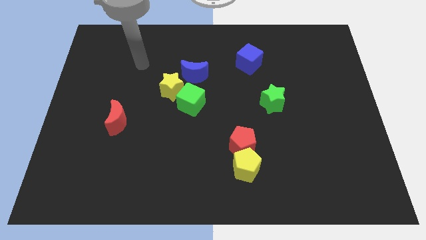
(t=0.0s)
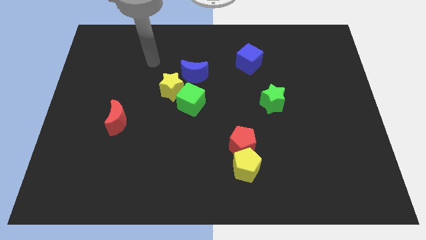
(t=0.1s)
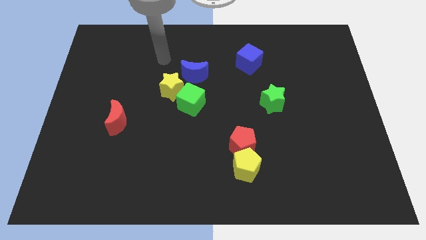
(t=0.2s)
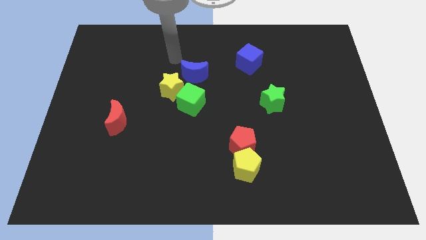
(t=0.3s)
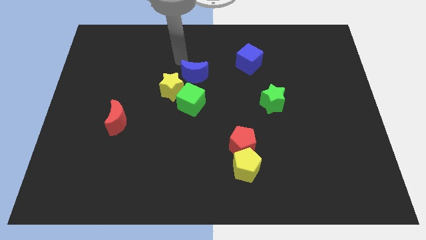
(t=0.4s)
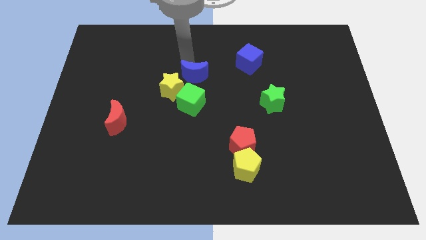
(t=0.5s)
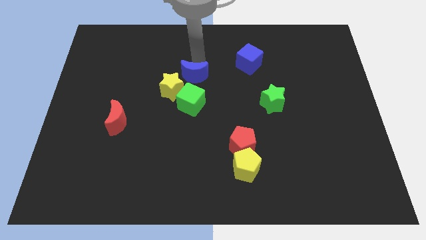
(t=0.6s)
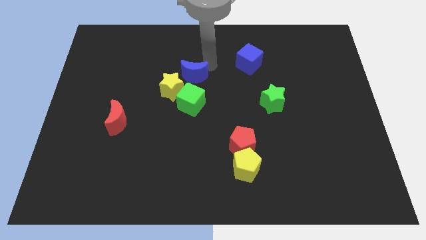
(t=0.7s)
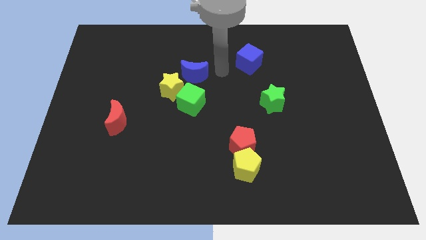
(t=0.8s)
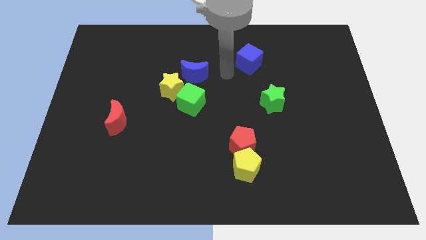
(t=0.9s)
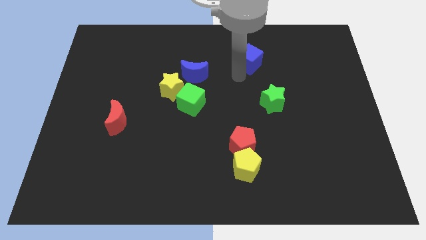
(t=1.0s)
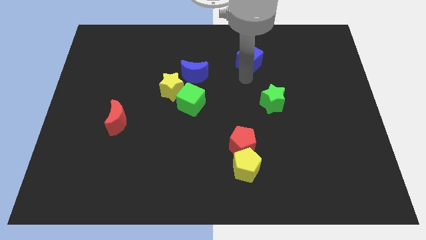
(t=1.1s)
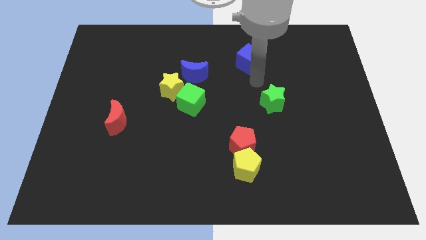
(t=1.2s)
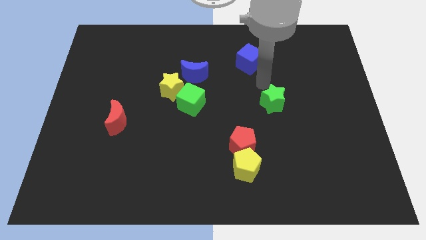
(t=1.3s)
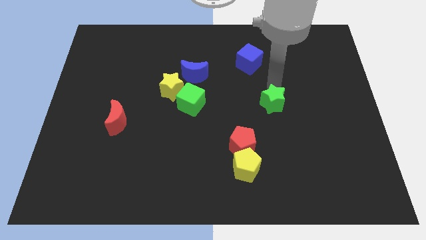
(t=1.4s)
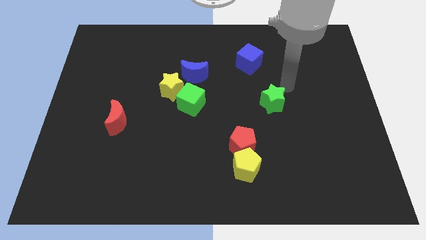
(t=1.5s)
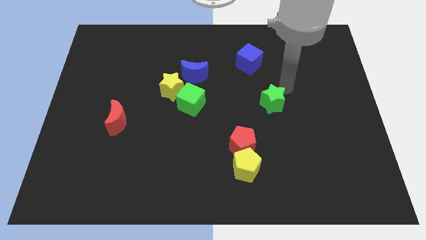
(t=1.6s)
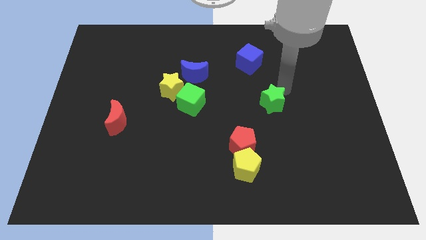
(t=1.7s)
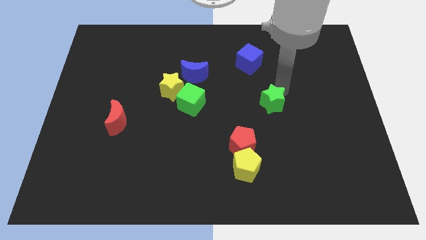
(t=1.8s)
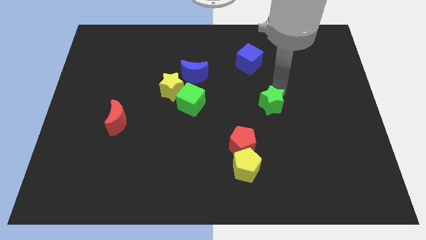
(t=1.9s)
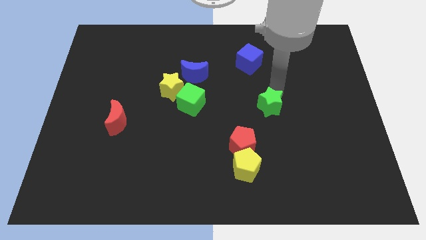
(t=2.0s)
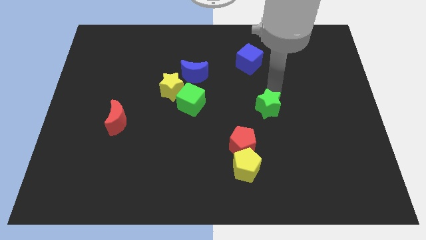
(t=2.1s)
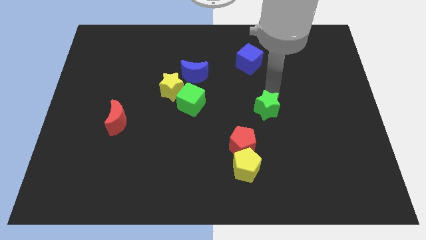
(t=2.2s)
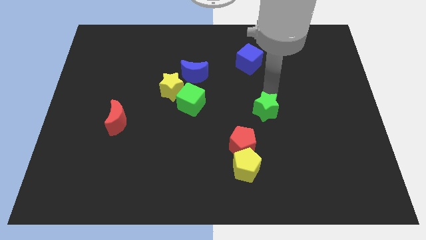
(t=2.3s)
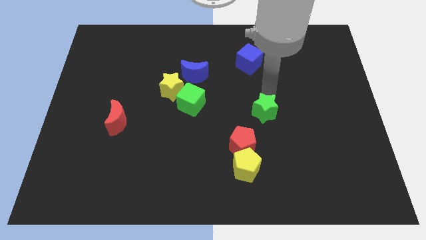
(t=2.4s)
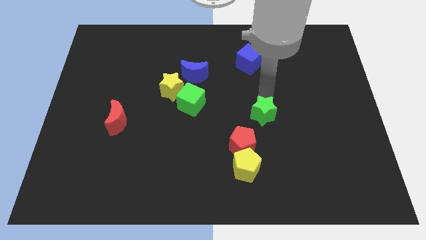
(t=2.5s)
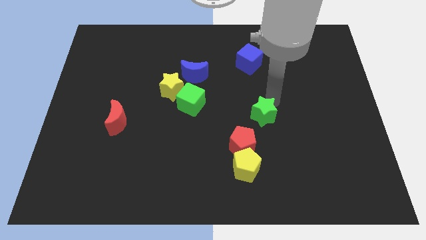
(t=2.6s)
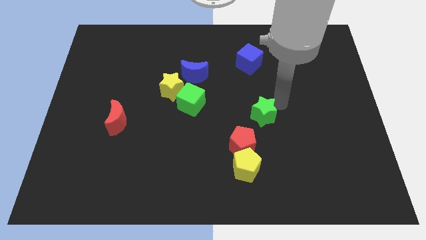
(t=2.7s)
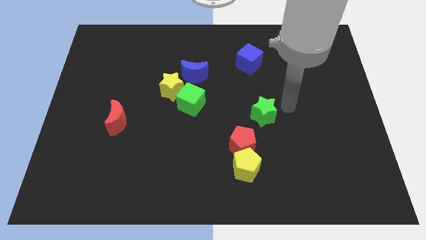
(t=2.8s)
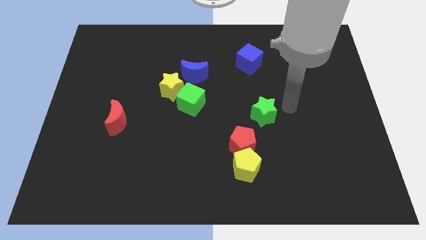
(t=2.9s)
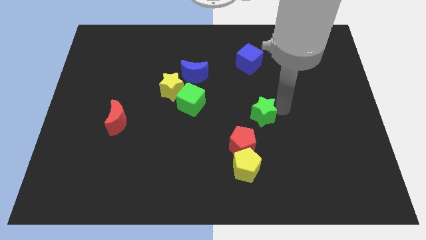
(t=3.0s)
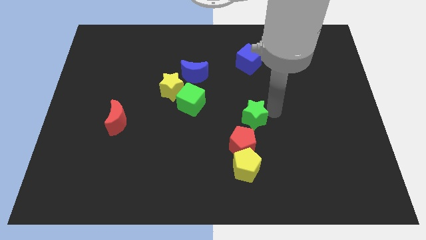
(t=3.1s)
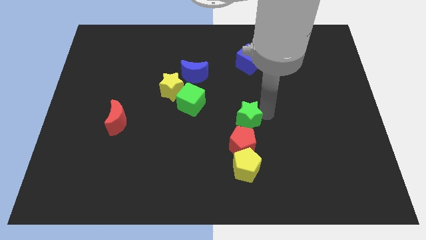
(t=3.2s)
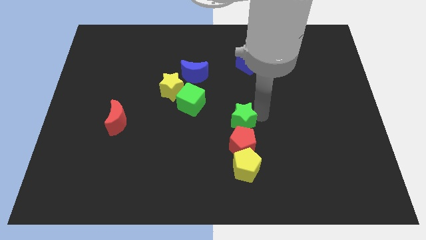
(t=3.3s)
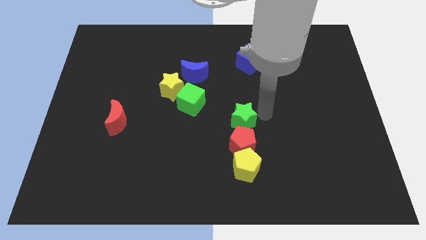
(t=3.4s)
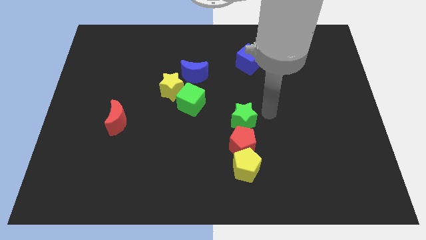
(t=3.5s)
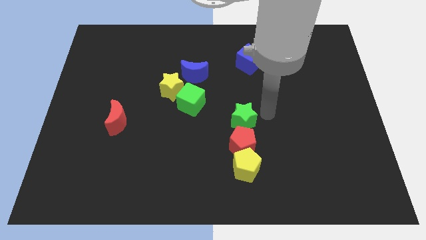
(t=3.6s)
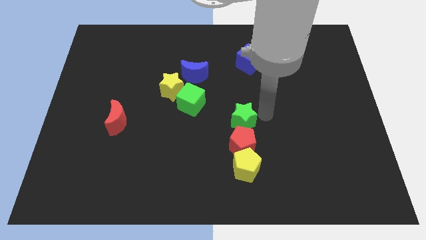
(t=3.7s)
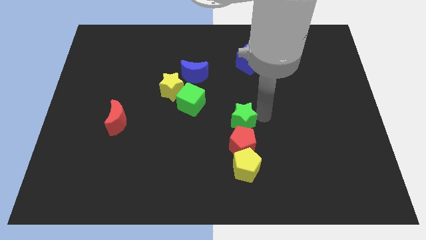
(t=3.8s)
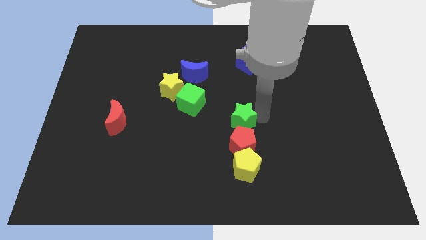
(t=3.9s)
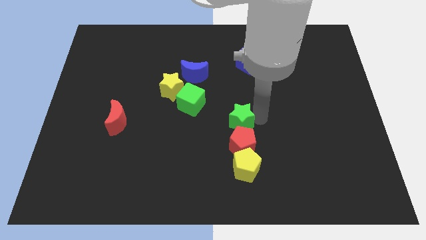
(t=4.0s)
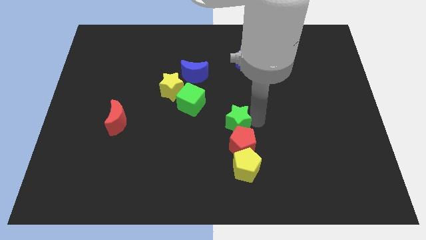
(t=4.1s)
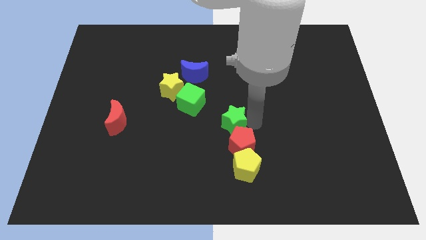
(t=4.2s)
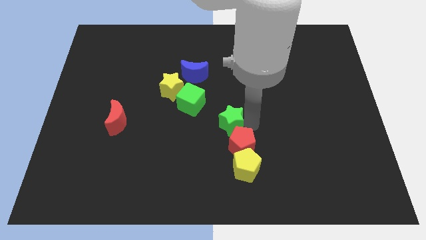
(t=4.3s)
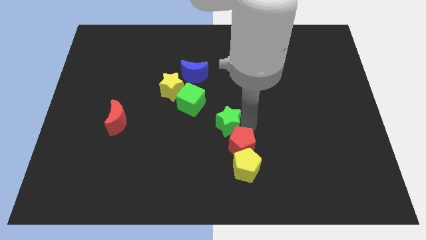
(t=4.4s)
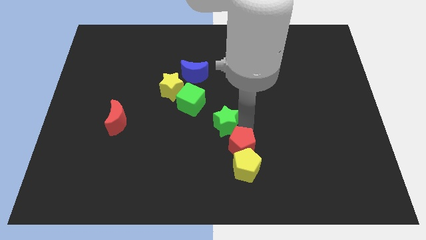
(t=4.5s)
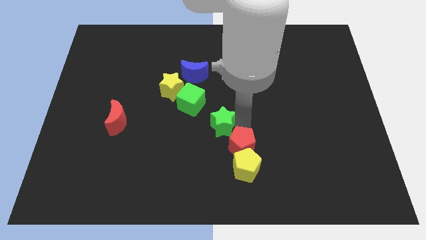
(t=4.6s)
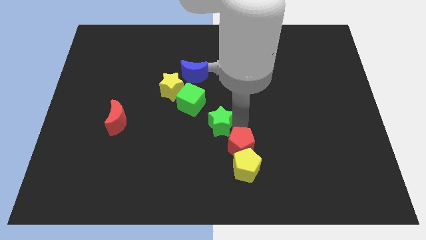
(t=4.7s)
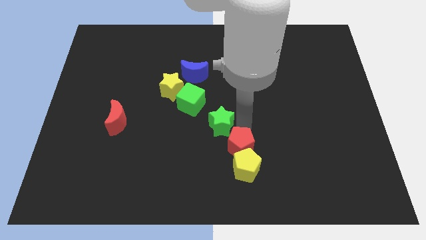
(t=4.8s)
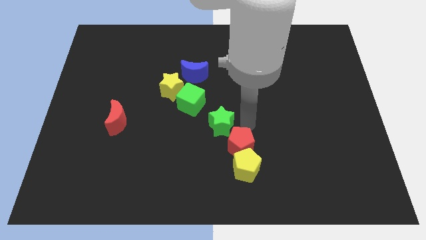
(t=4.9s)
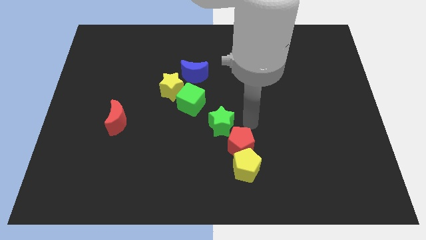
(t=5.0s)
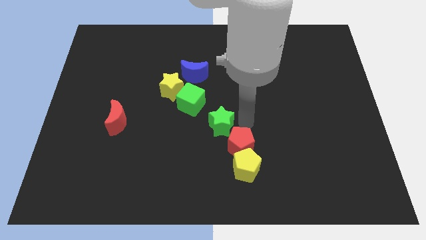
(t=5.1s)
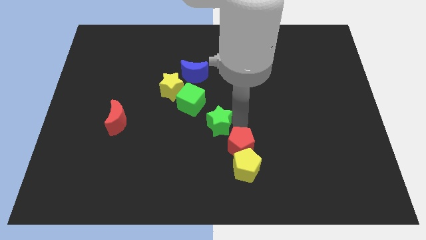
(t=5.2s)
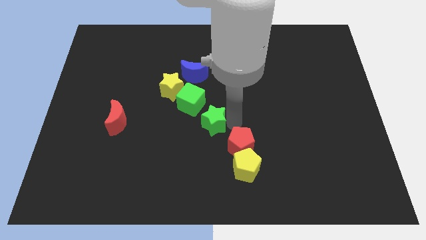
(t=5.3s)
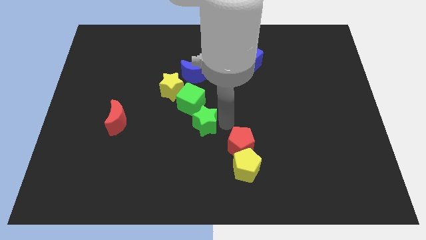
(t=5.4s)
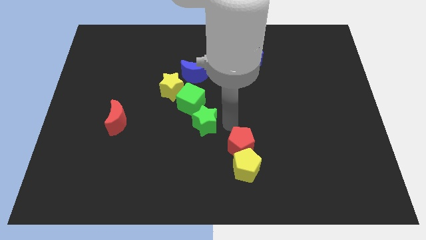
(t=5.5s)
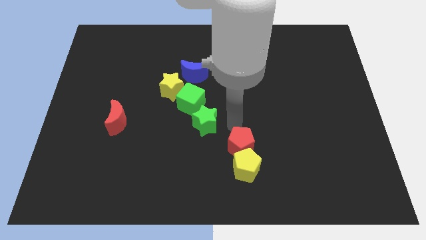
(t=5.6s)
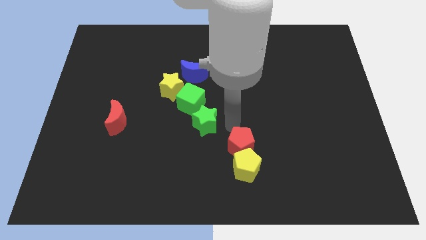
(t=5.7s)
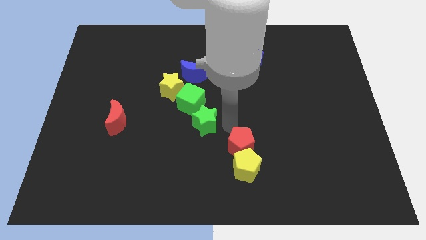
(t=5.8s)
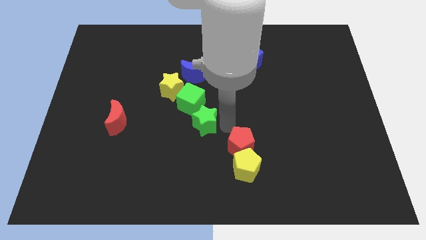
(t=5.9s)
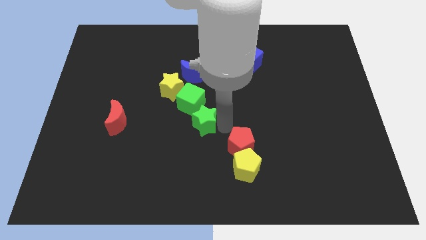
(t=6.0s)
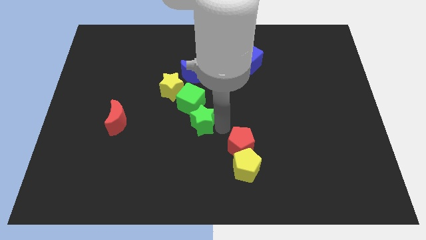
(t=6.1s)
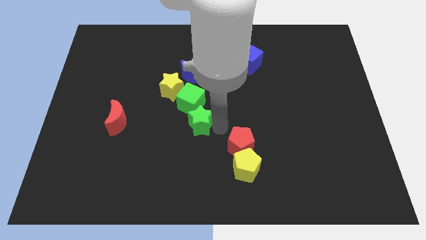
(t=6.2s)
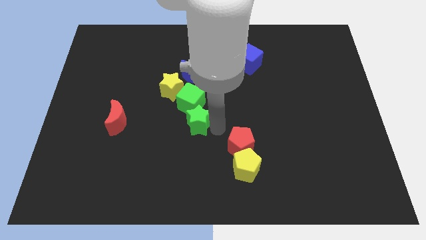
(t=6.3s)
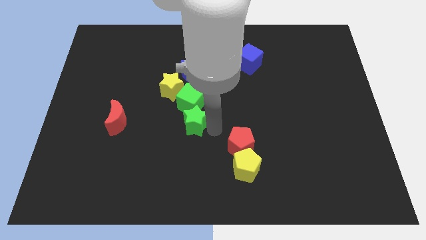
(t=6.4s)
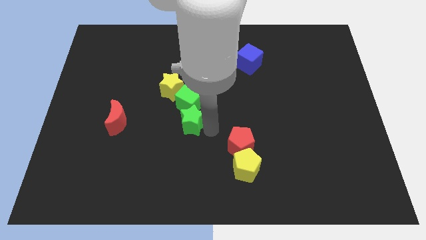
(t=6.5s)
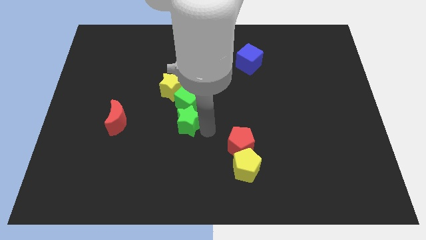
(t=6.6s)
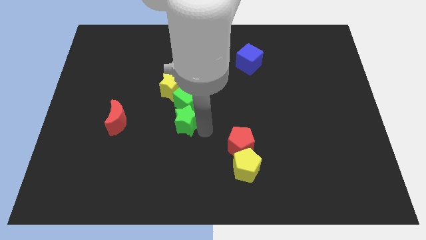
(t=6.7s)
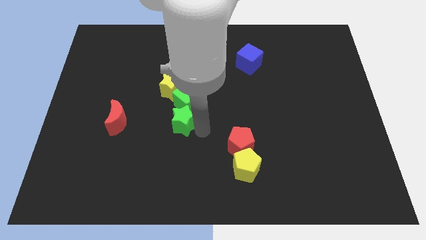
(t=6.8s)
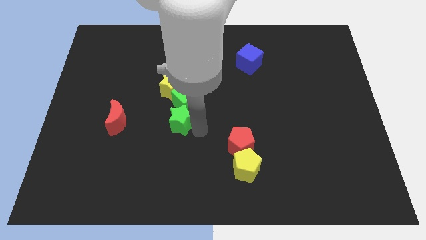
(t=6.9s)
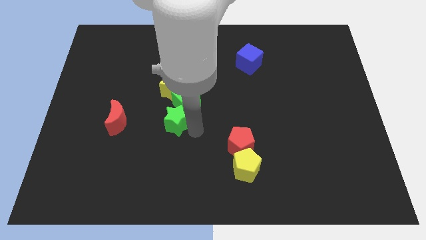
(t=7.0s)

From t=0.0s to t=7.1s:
slide the green star to the left

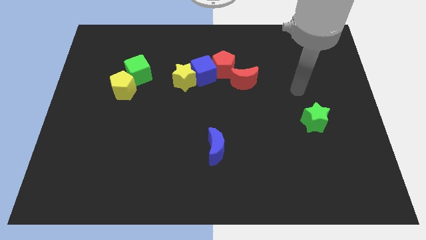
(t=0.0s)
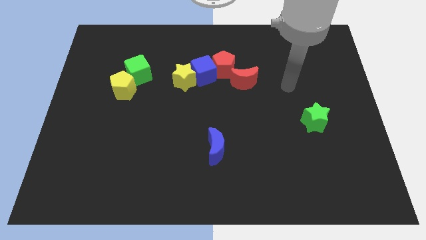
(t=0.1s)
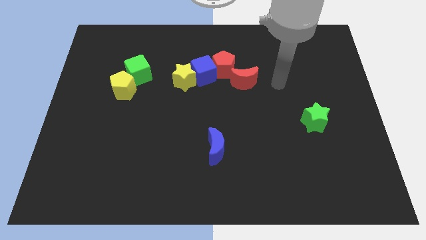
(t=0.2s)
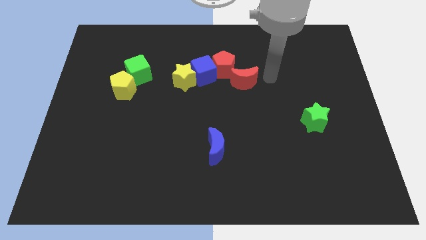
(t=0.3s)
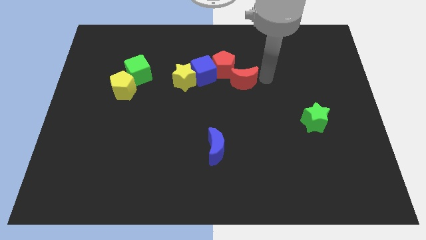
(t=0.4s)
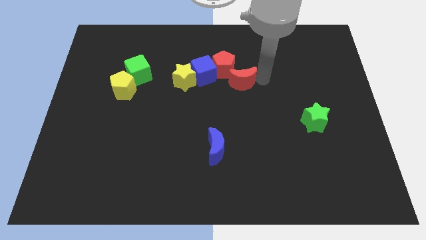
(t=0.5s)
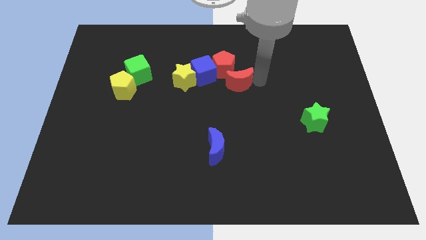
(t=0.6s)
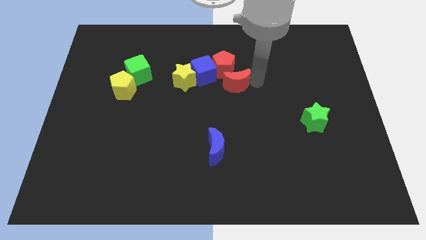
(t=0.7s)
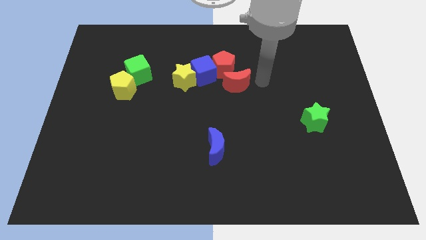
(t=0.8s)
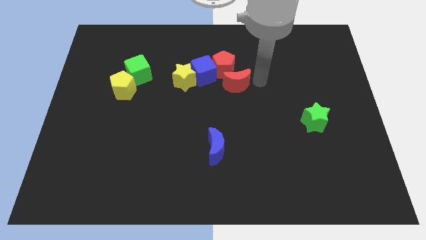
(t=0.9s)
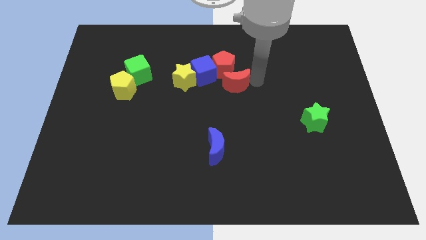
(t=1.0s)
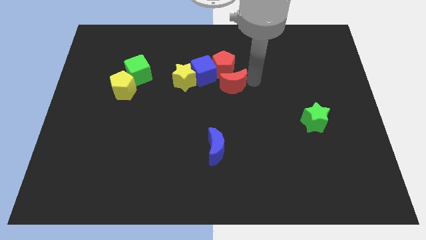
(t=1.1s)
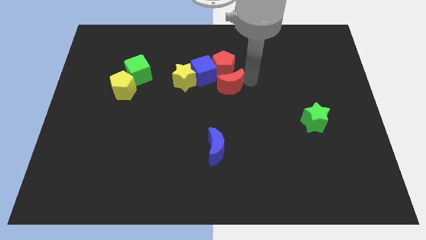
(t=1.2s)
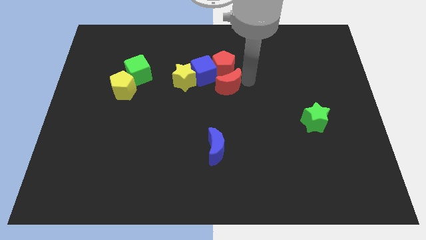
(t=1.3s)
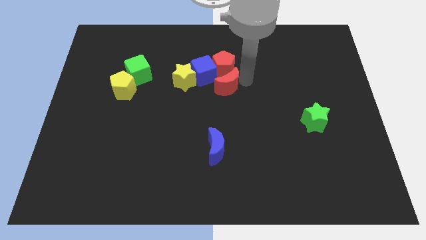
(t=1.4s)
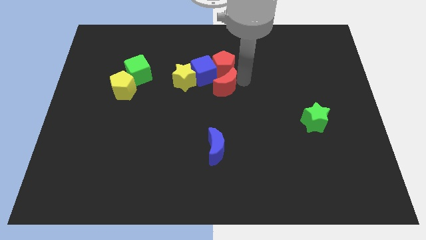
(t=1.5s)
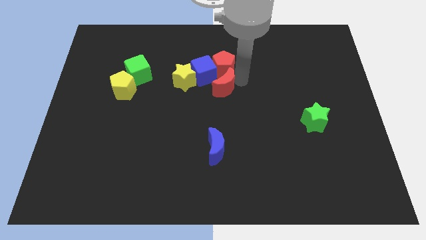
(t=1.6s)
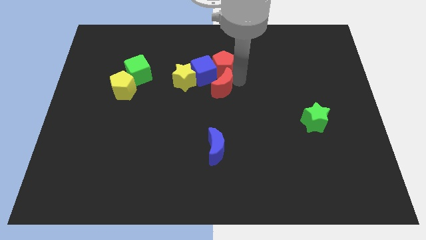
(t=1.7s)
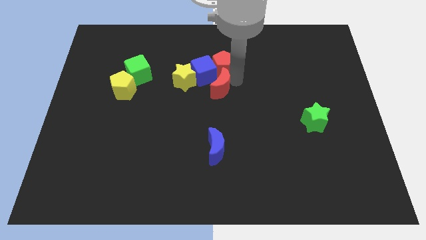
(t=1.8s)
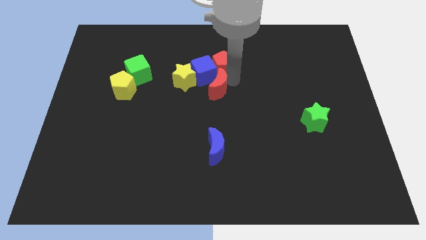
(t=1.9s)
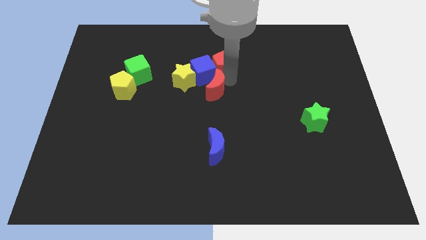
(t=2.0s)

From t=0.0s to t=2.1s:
push the red moon a bit to the left
